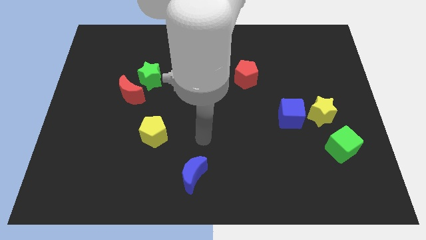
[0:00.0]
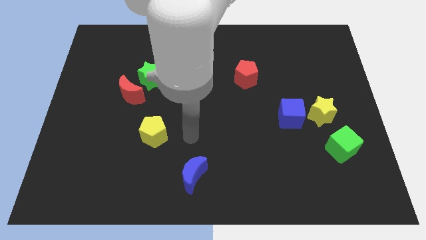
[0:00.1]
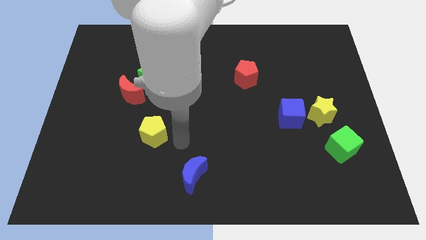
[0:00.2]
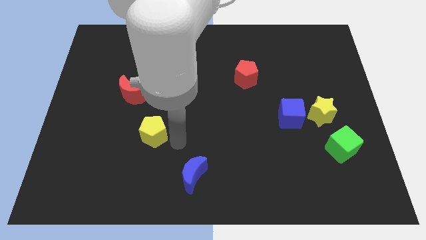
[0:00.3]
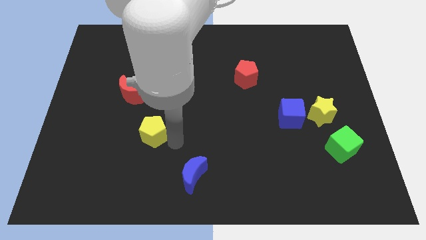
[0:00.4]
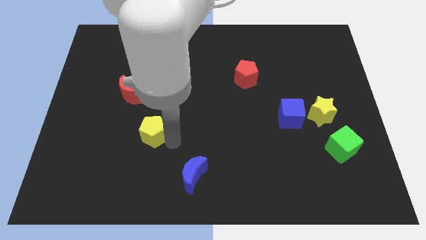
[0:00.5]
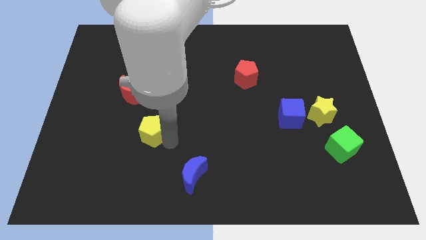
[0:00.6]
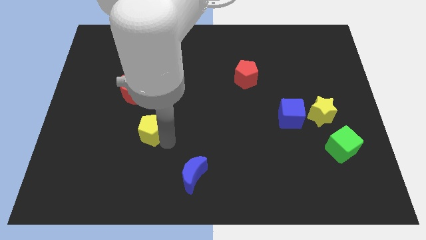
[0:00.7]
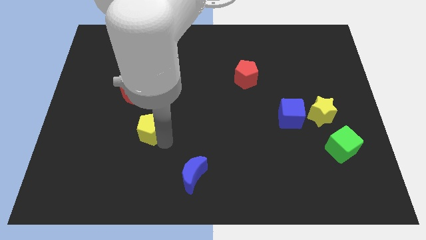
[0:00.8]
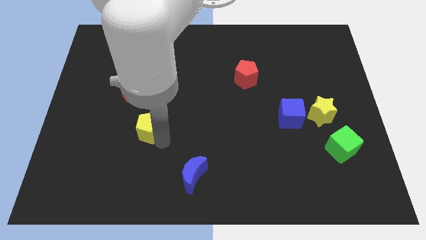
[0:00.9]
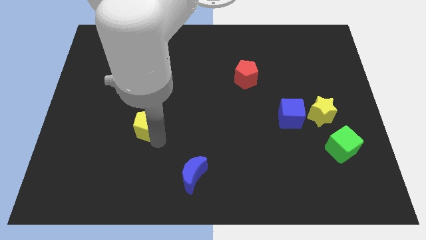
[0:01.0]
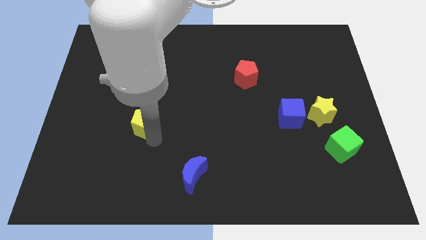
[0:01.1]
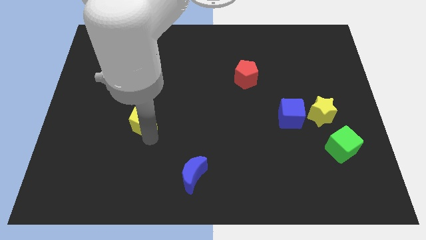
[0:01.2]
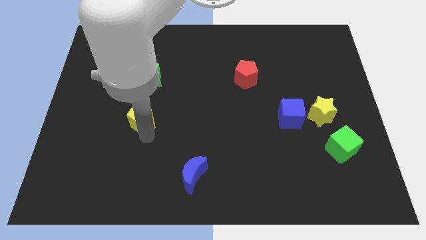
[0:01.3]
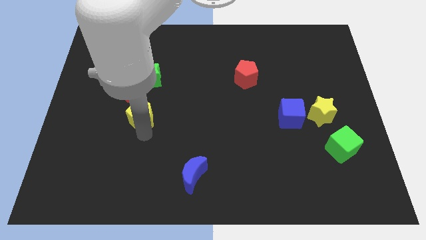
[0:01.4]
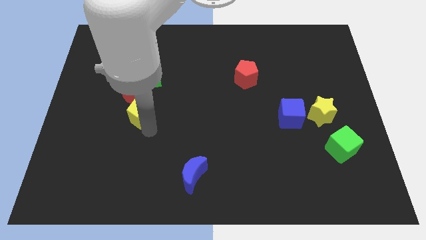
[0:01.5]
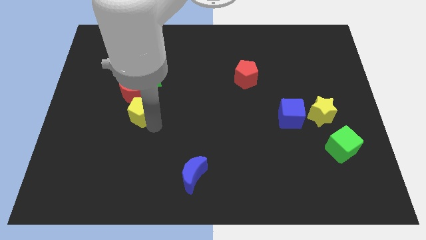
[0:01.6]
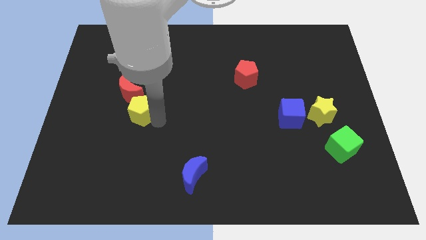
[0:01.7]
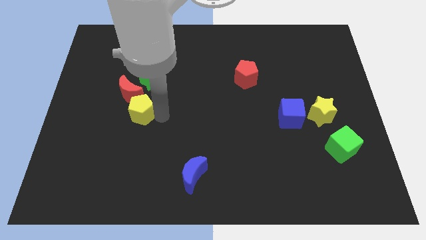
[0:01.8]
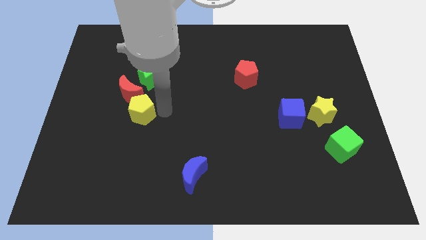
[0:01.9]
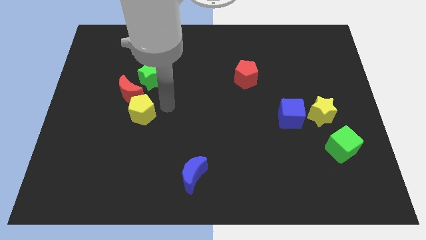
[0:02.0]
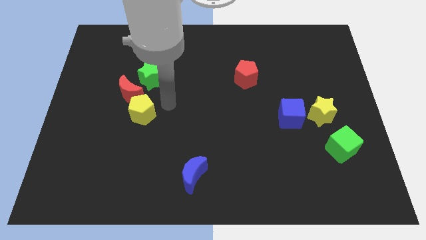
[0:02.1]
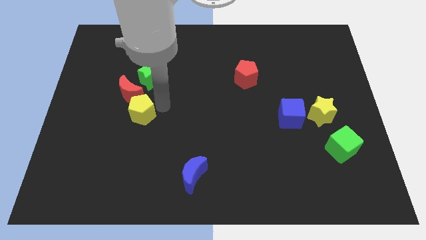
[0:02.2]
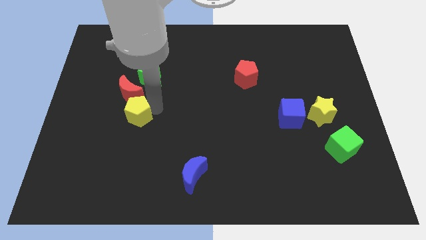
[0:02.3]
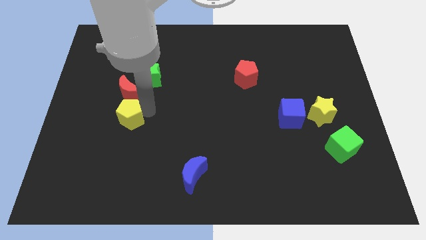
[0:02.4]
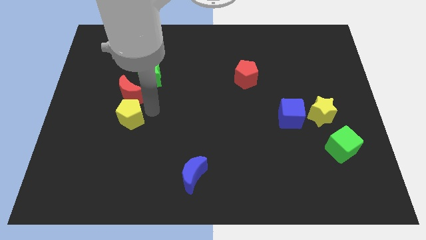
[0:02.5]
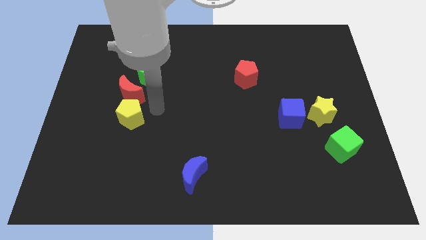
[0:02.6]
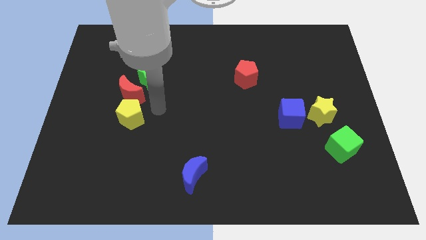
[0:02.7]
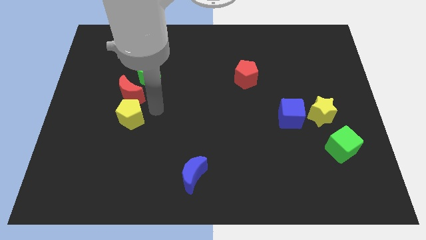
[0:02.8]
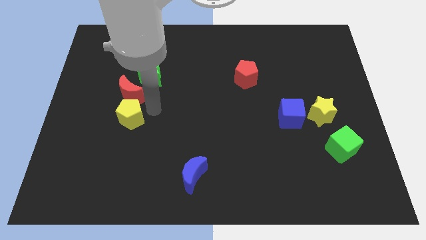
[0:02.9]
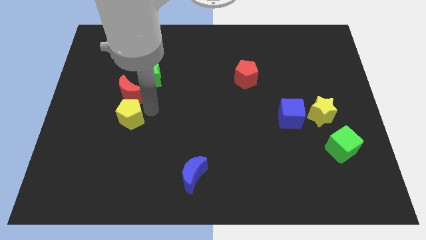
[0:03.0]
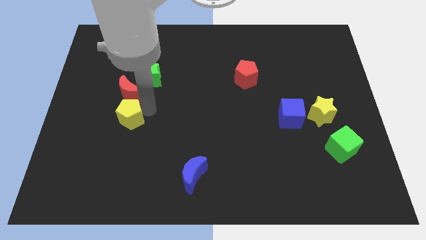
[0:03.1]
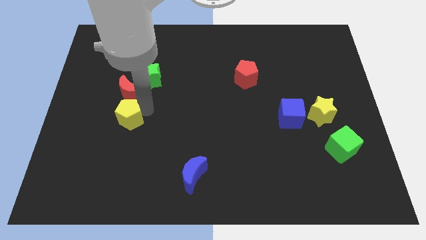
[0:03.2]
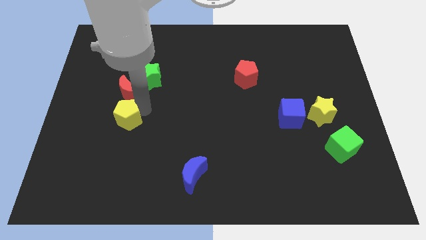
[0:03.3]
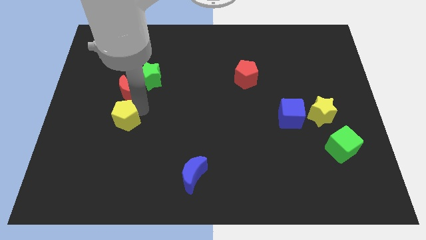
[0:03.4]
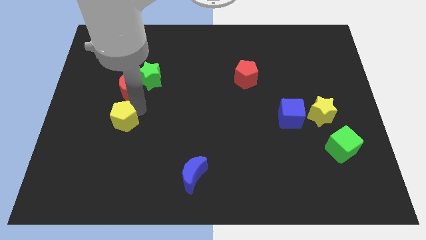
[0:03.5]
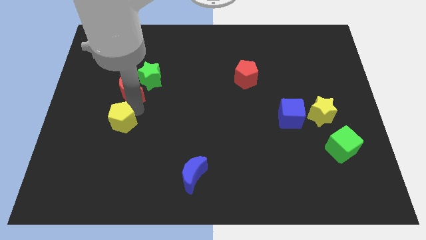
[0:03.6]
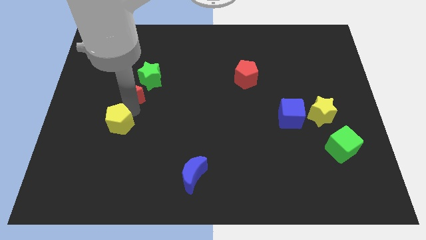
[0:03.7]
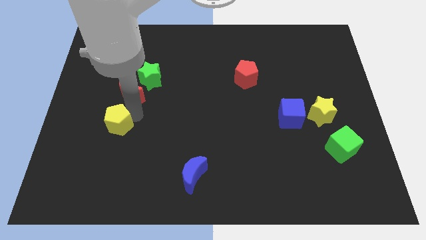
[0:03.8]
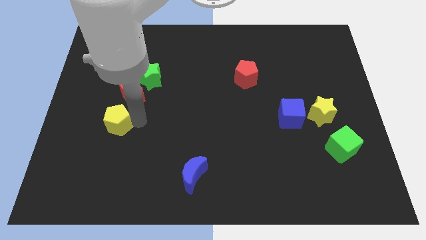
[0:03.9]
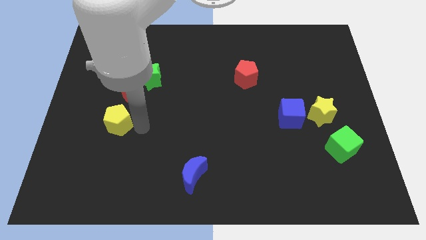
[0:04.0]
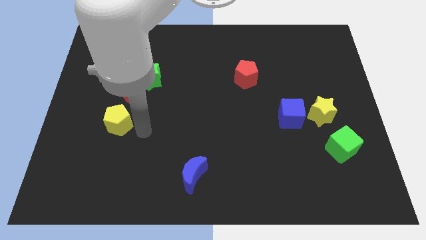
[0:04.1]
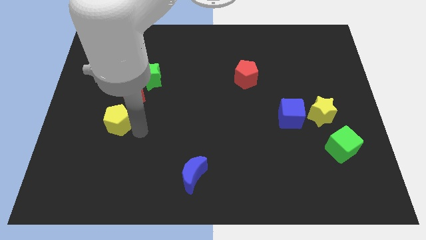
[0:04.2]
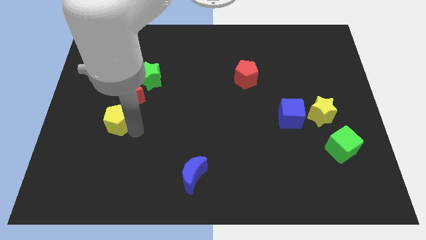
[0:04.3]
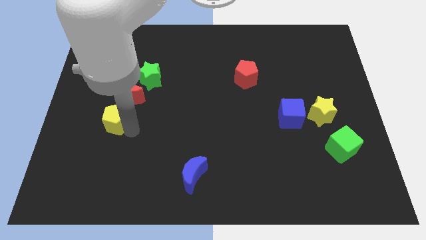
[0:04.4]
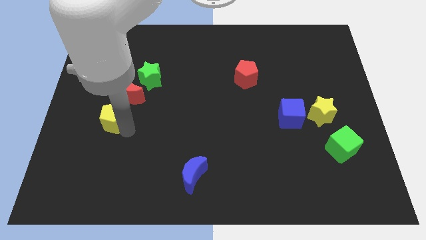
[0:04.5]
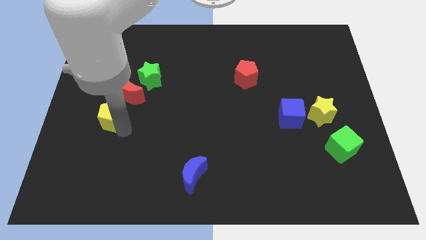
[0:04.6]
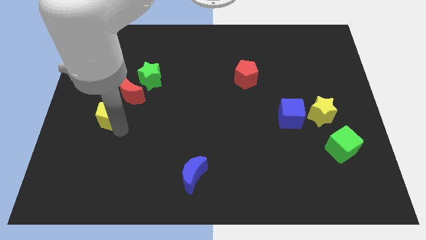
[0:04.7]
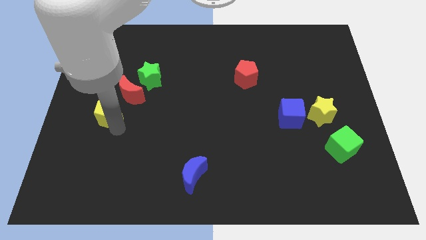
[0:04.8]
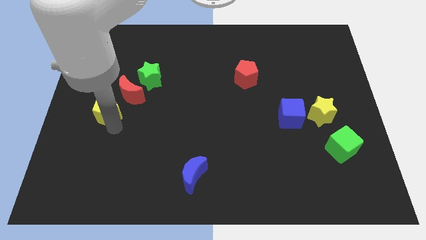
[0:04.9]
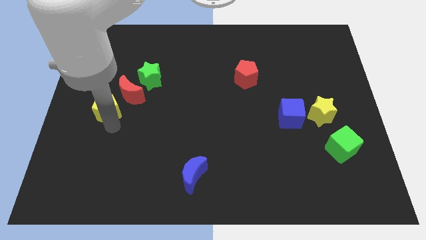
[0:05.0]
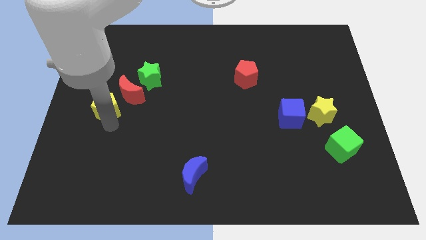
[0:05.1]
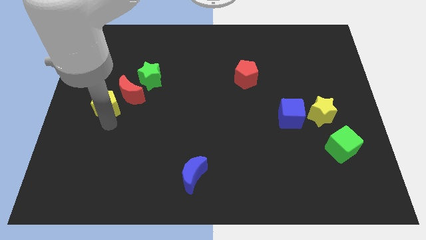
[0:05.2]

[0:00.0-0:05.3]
move the yellow pentagon to the left side
